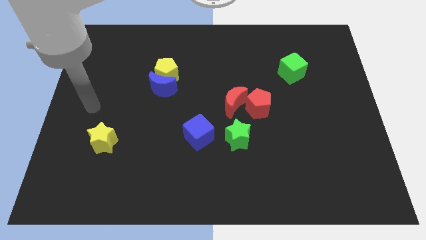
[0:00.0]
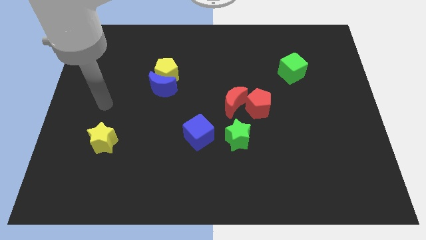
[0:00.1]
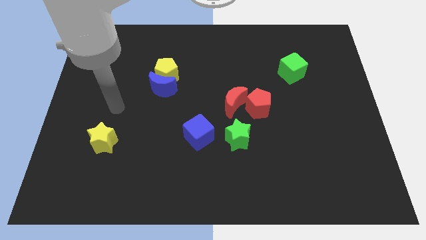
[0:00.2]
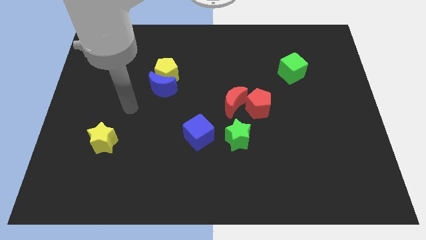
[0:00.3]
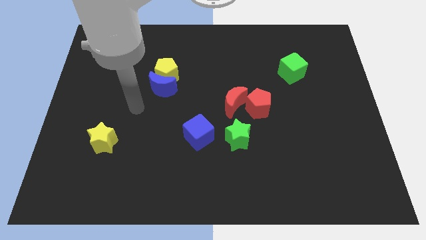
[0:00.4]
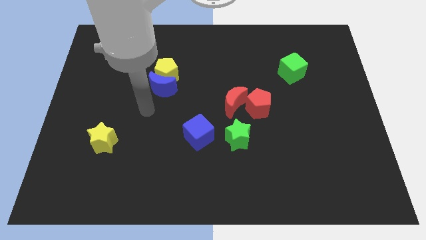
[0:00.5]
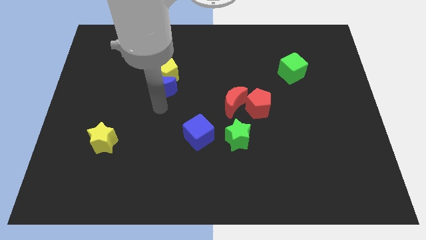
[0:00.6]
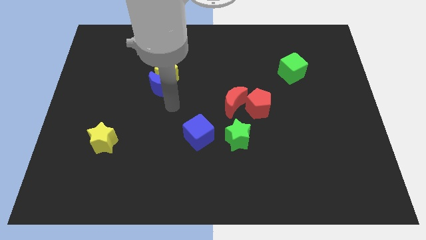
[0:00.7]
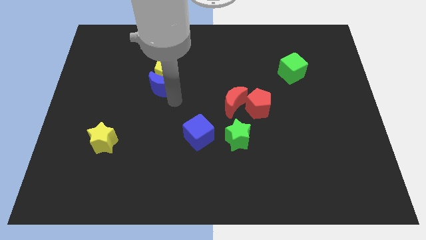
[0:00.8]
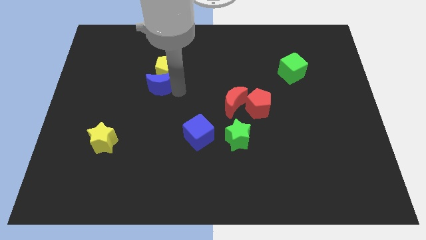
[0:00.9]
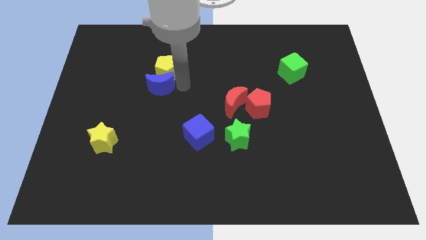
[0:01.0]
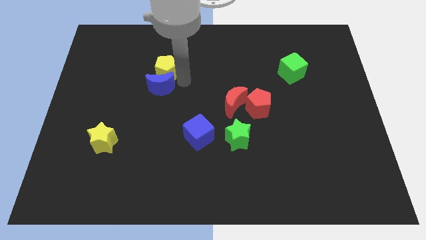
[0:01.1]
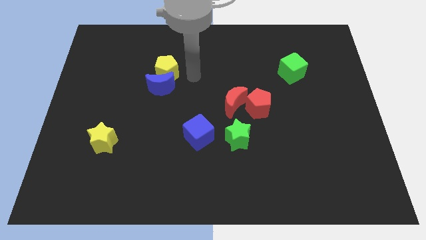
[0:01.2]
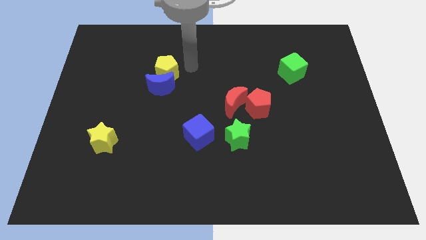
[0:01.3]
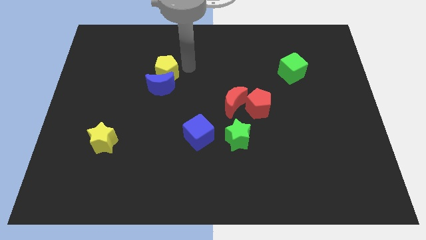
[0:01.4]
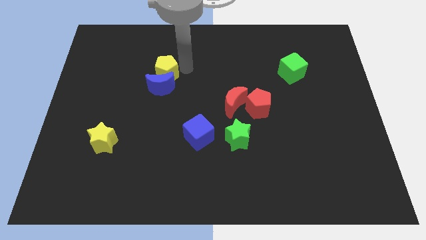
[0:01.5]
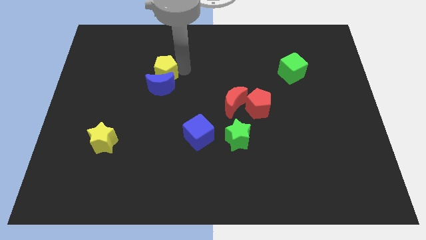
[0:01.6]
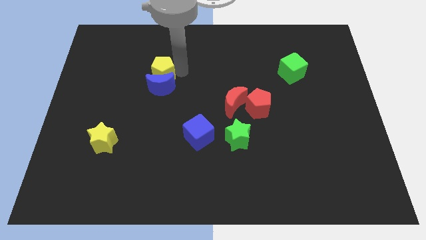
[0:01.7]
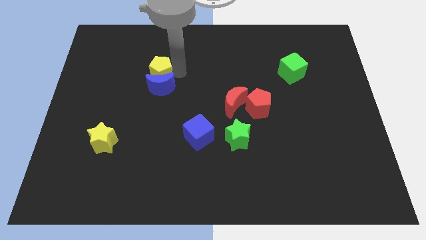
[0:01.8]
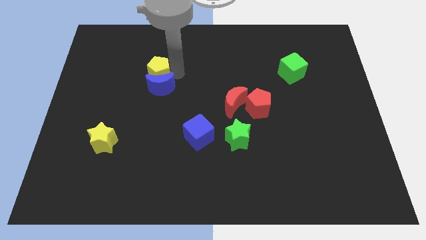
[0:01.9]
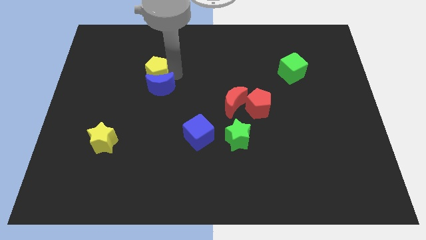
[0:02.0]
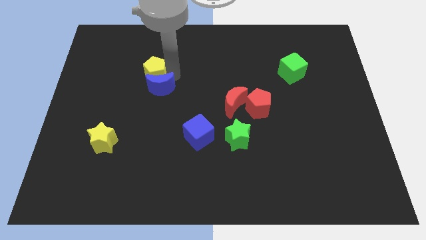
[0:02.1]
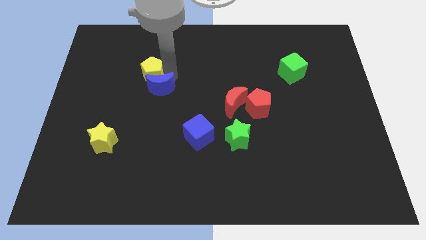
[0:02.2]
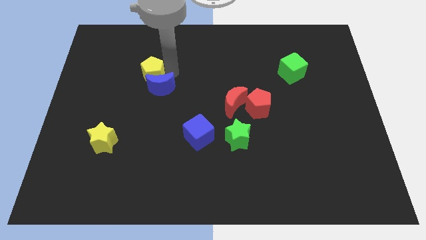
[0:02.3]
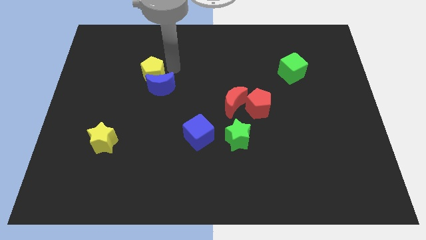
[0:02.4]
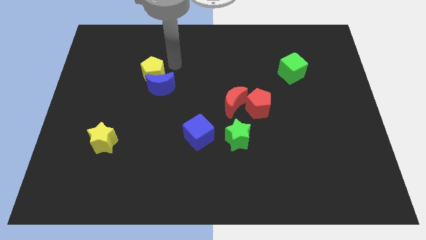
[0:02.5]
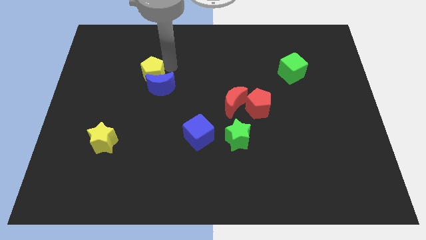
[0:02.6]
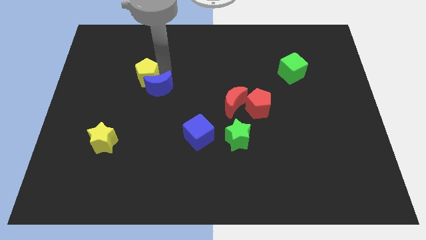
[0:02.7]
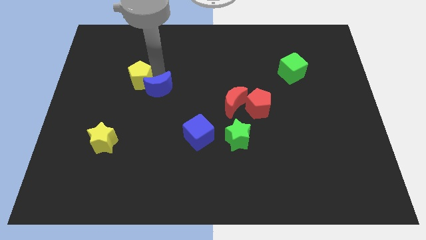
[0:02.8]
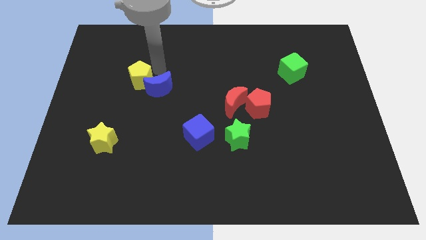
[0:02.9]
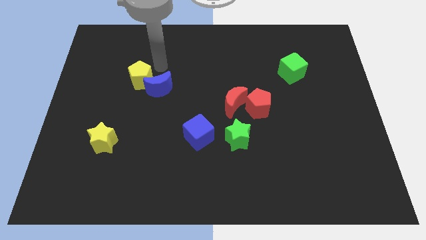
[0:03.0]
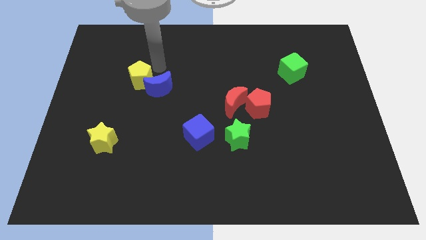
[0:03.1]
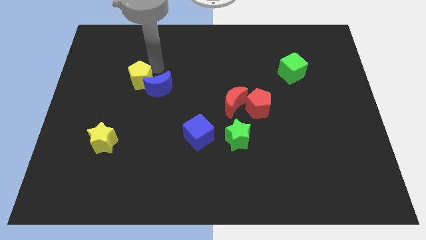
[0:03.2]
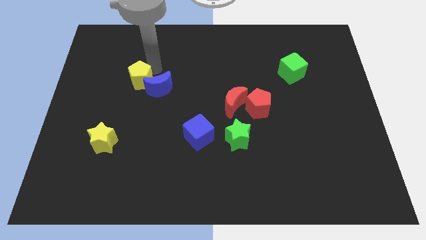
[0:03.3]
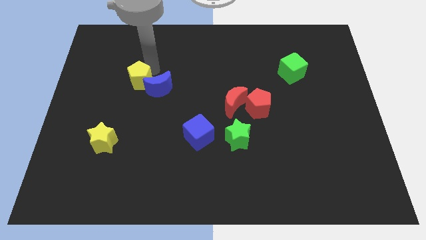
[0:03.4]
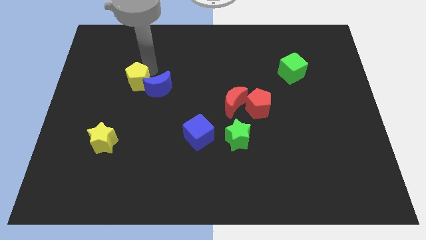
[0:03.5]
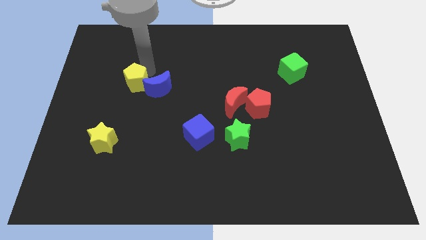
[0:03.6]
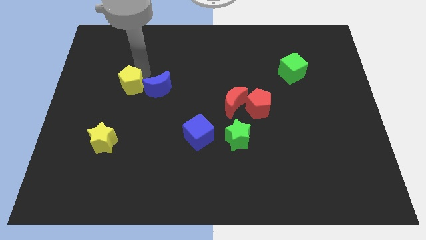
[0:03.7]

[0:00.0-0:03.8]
move the yellow pentagon downwards and left slightly

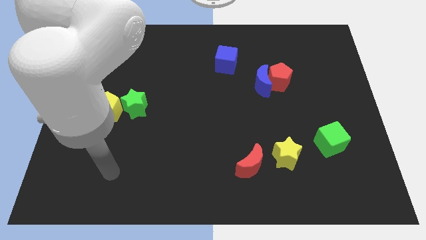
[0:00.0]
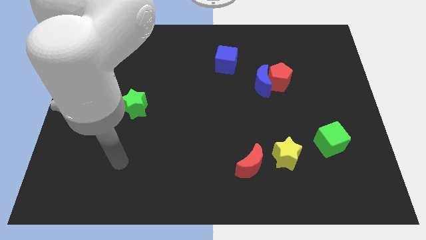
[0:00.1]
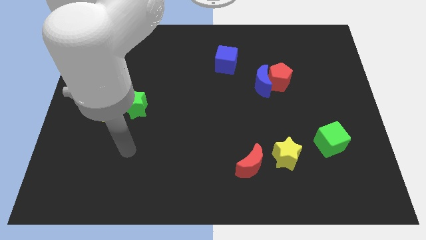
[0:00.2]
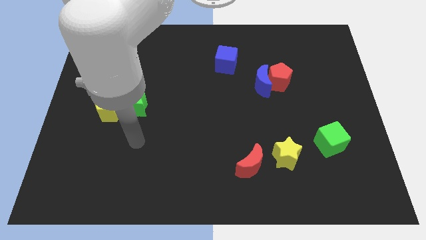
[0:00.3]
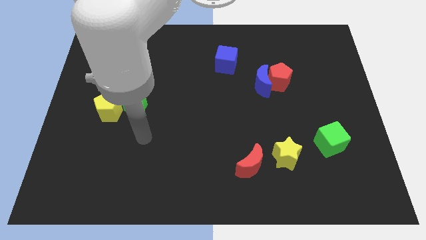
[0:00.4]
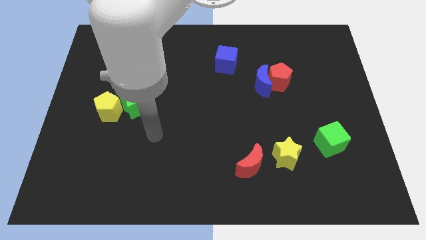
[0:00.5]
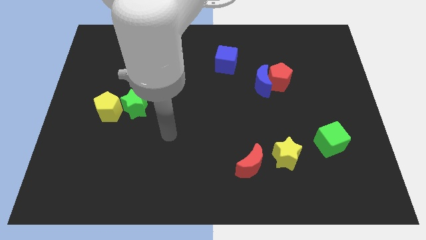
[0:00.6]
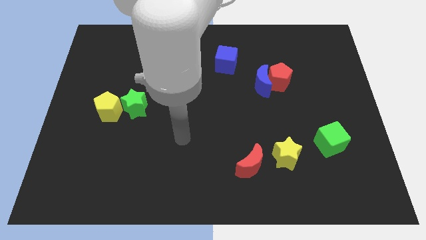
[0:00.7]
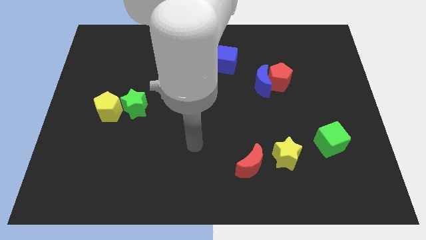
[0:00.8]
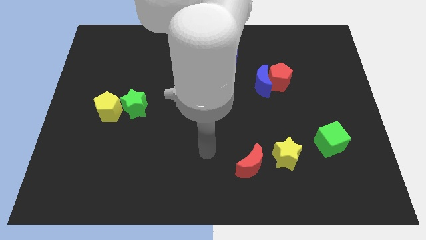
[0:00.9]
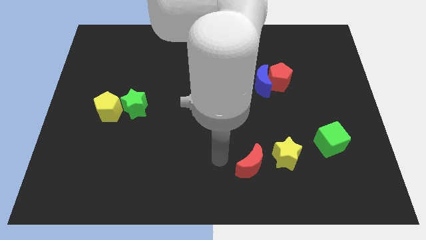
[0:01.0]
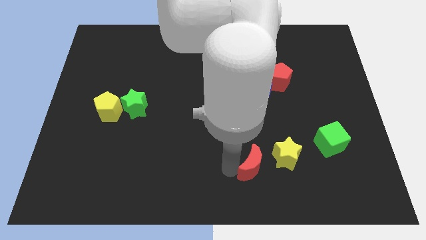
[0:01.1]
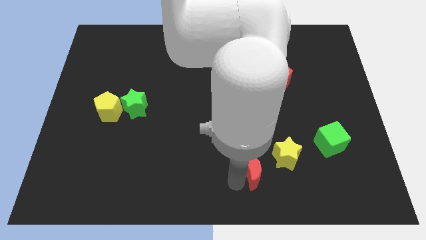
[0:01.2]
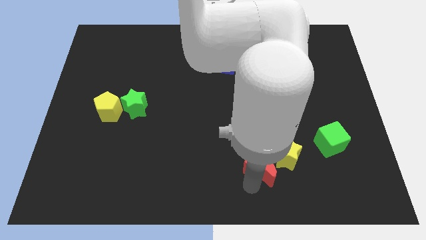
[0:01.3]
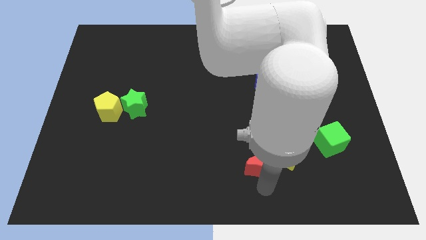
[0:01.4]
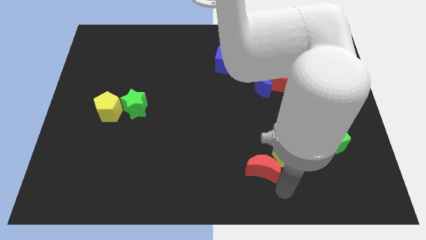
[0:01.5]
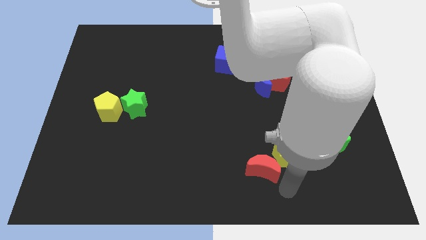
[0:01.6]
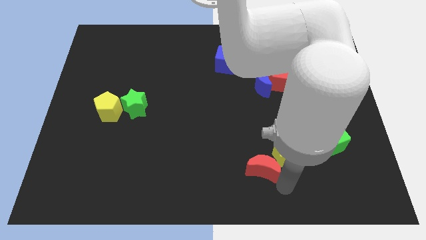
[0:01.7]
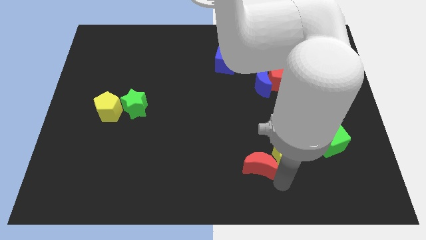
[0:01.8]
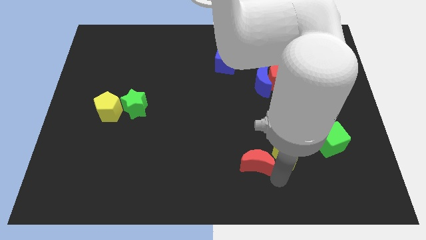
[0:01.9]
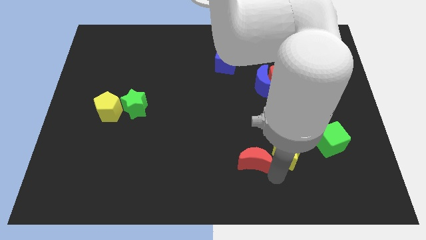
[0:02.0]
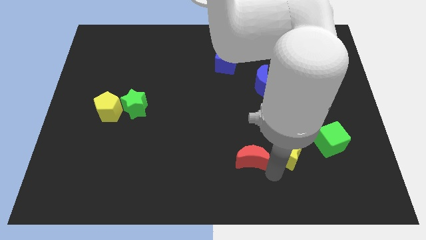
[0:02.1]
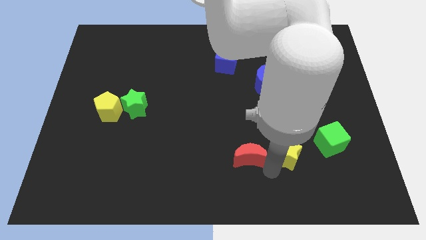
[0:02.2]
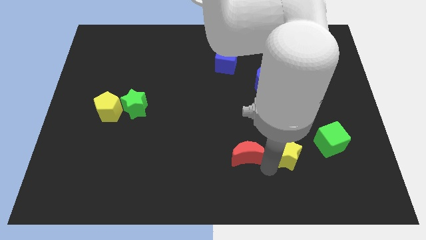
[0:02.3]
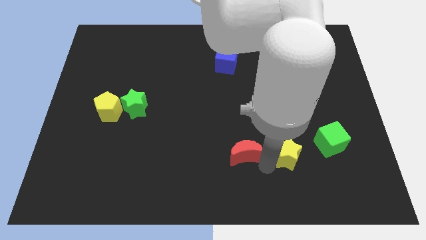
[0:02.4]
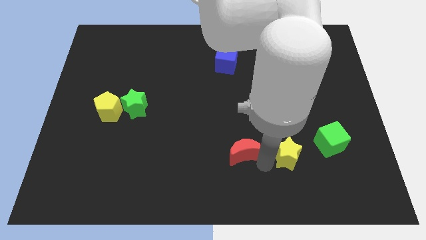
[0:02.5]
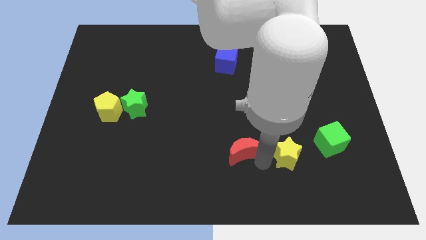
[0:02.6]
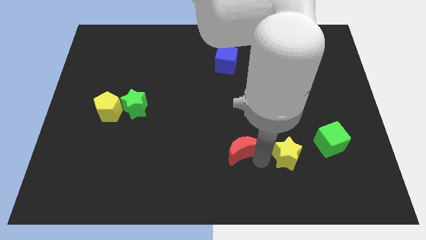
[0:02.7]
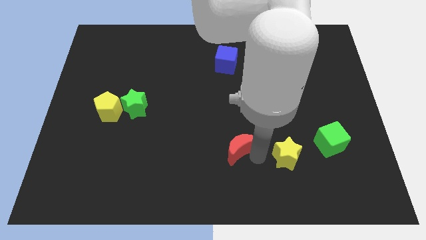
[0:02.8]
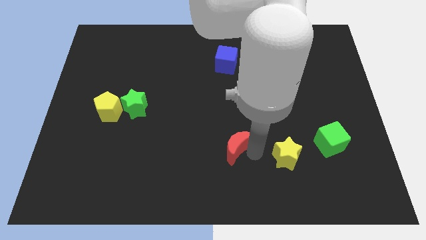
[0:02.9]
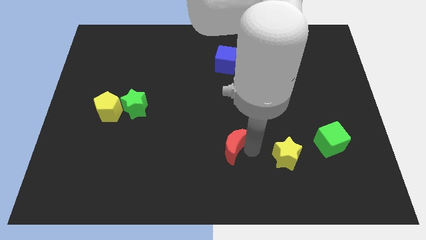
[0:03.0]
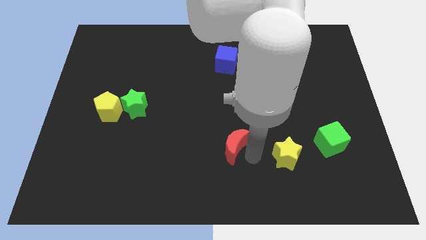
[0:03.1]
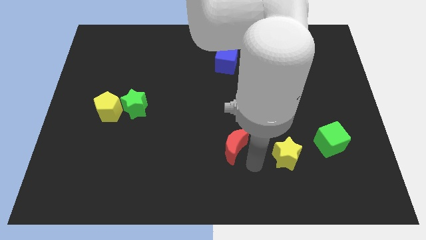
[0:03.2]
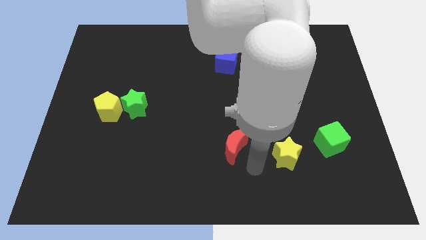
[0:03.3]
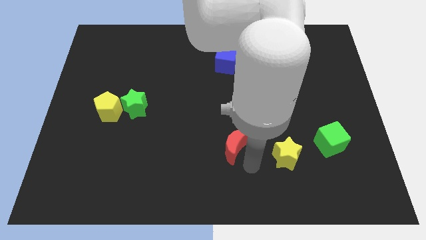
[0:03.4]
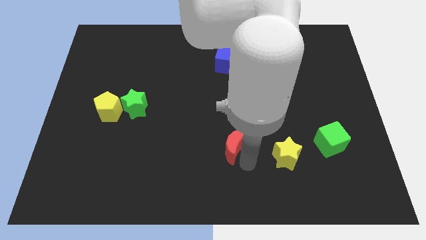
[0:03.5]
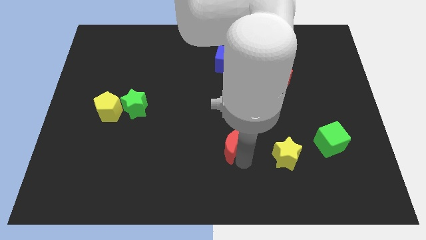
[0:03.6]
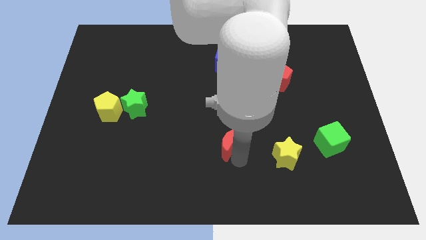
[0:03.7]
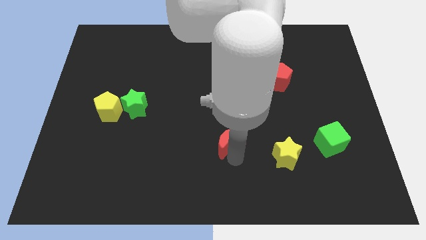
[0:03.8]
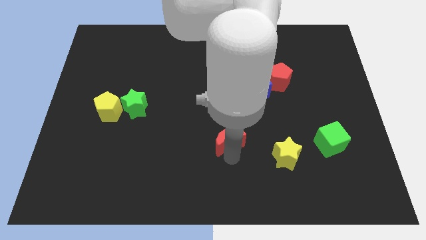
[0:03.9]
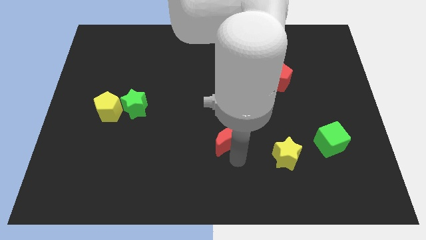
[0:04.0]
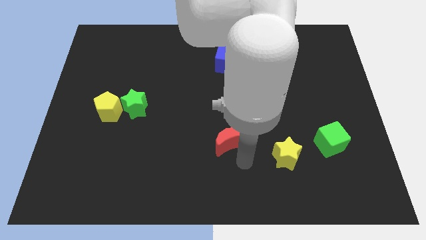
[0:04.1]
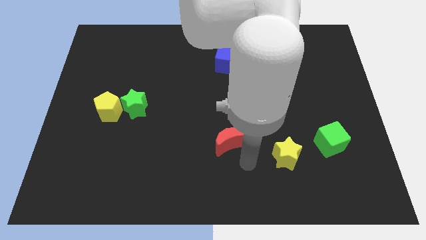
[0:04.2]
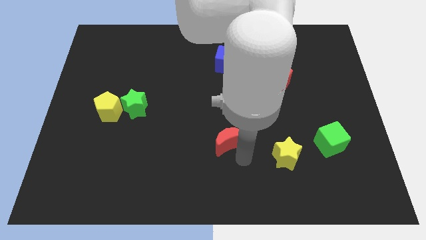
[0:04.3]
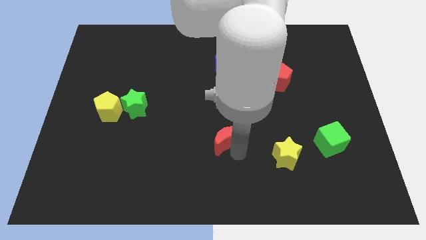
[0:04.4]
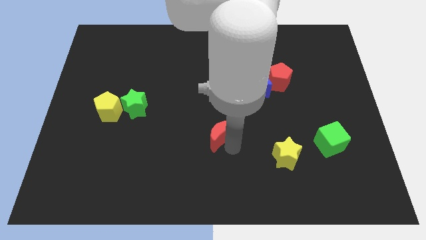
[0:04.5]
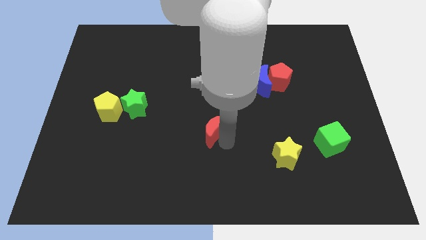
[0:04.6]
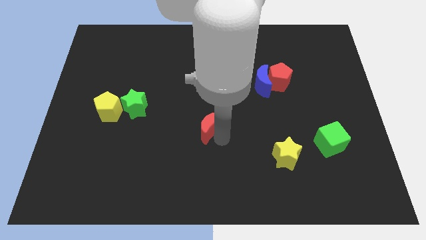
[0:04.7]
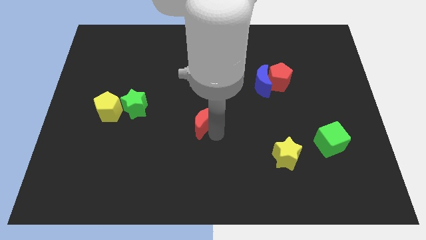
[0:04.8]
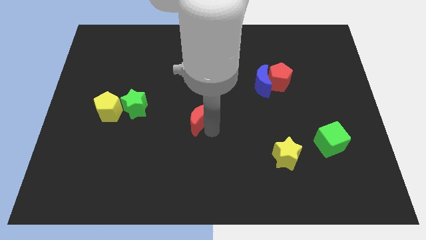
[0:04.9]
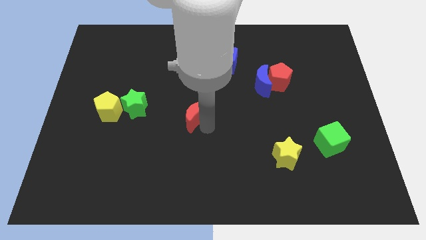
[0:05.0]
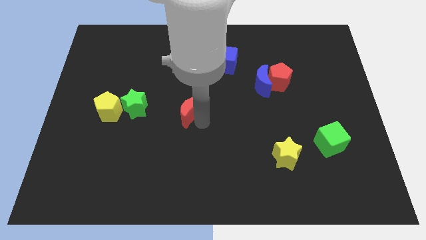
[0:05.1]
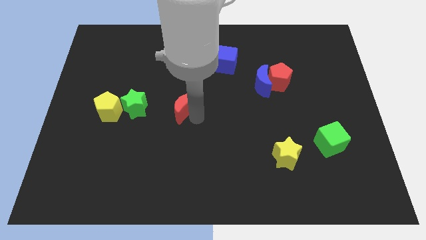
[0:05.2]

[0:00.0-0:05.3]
push the red moon up and then to the left
